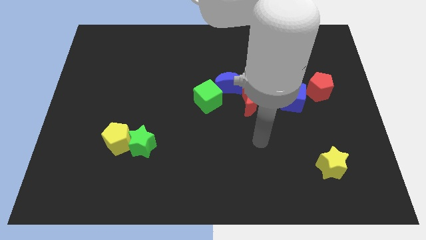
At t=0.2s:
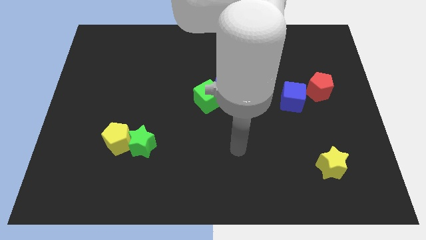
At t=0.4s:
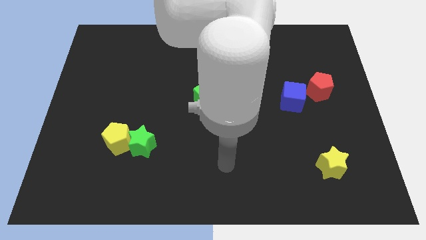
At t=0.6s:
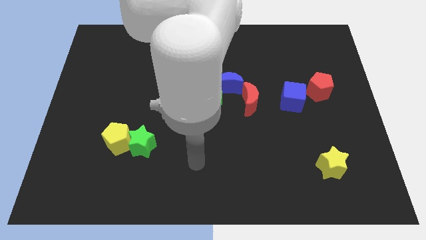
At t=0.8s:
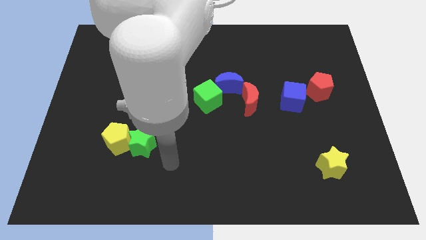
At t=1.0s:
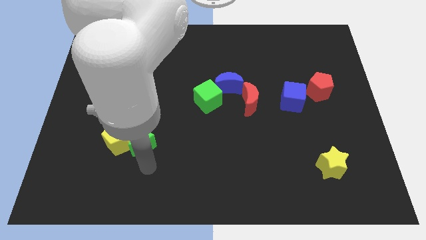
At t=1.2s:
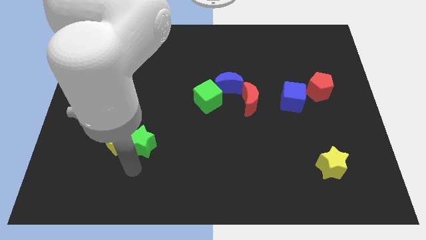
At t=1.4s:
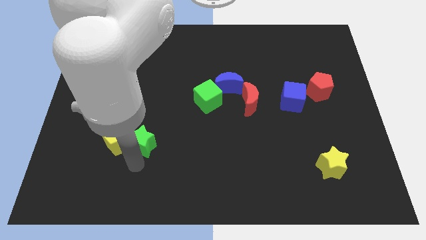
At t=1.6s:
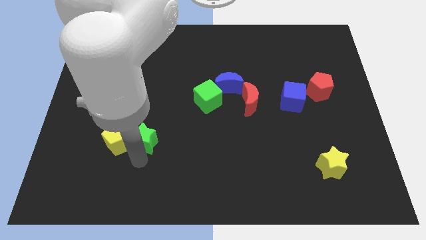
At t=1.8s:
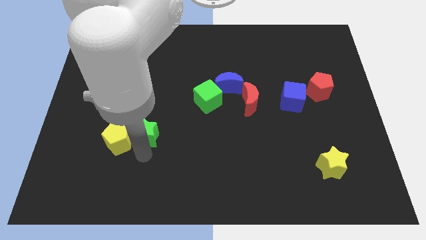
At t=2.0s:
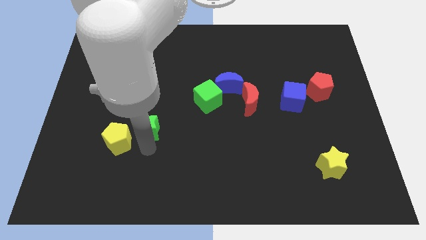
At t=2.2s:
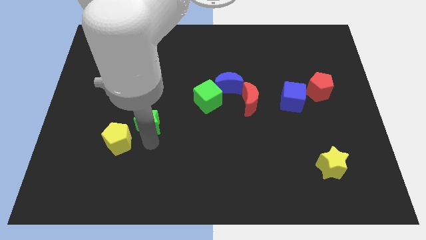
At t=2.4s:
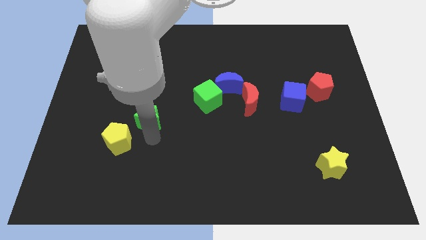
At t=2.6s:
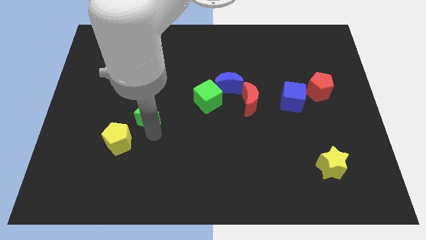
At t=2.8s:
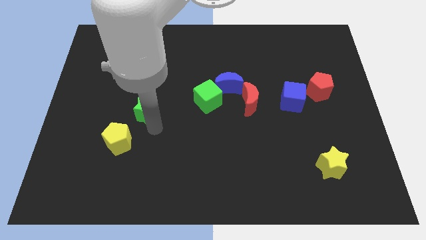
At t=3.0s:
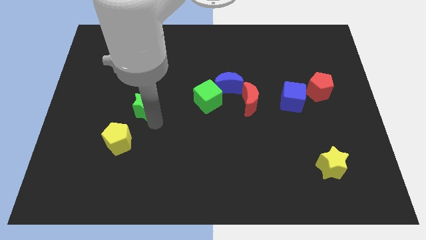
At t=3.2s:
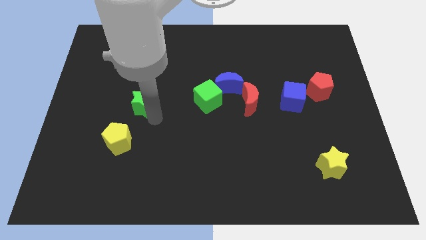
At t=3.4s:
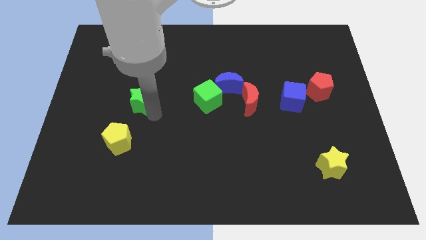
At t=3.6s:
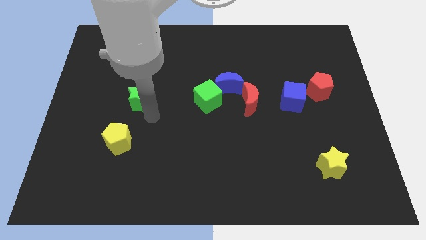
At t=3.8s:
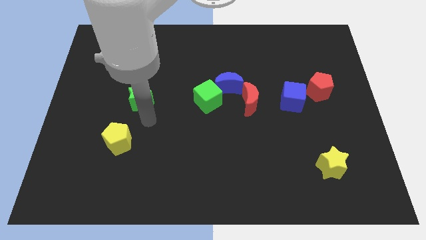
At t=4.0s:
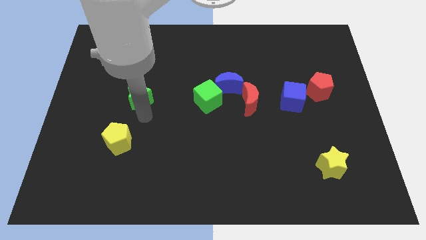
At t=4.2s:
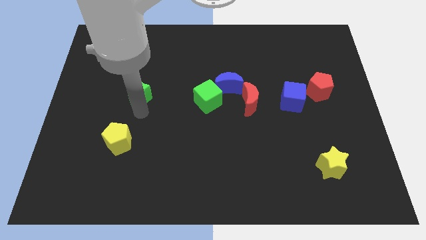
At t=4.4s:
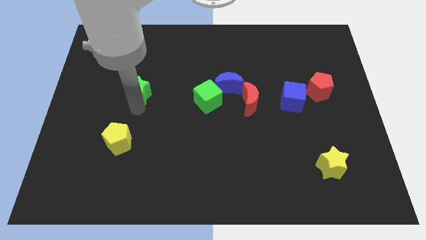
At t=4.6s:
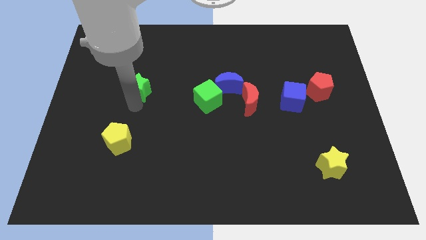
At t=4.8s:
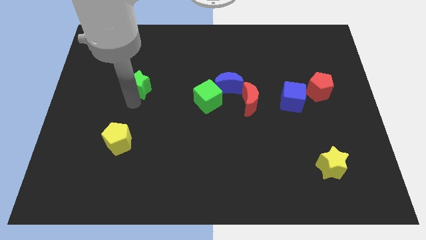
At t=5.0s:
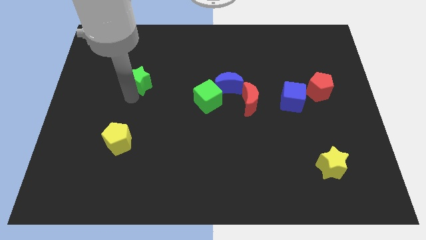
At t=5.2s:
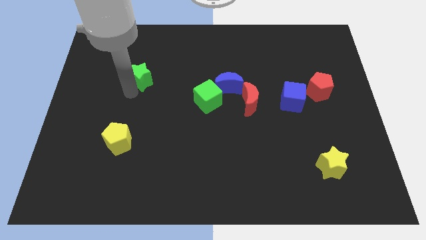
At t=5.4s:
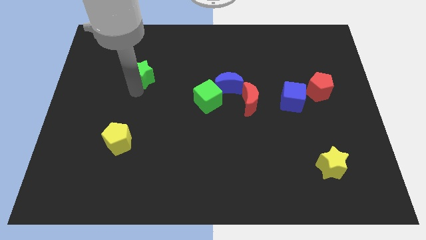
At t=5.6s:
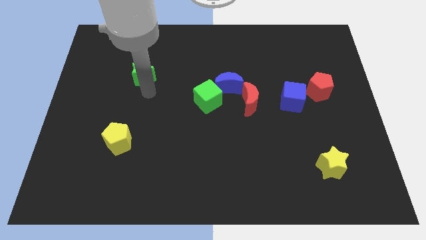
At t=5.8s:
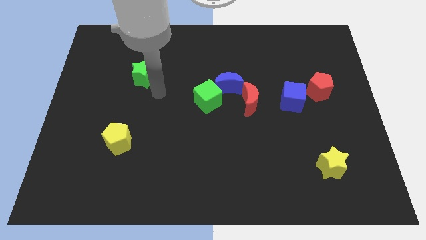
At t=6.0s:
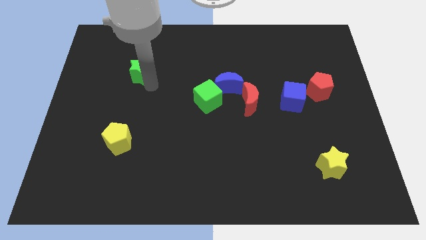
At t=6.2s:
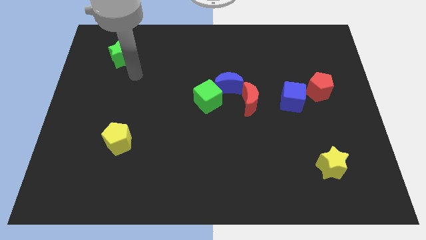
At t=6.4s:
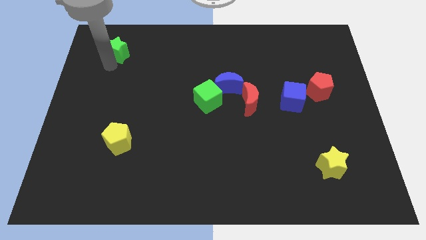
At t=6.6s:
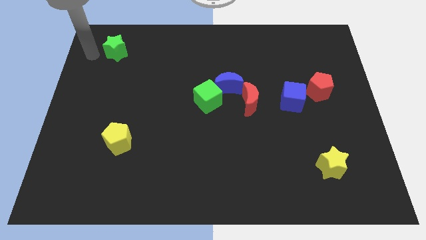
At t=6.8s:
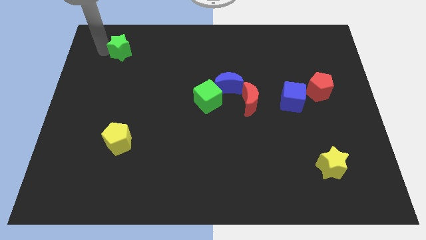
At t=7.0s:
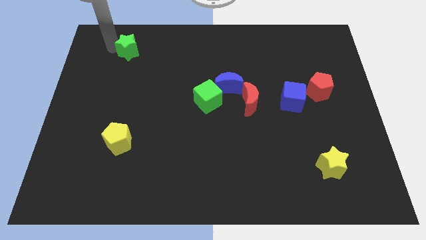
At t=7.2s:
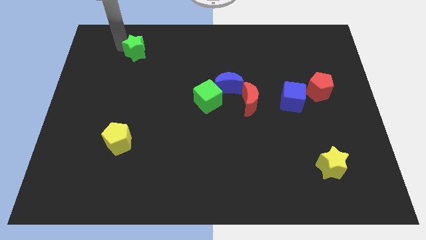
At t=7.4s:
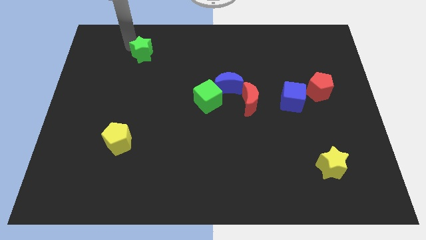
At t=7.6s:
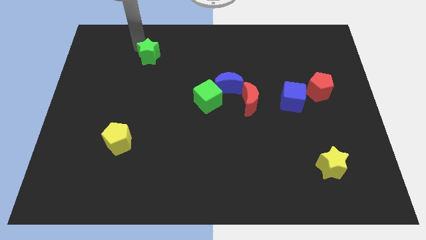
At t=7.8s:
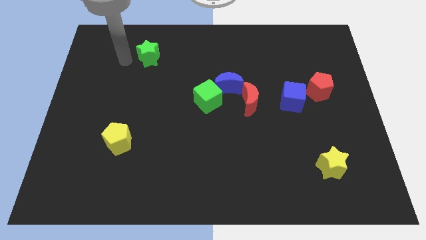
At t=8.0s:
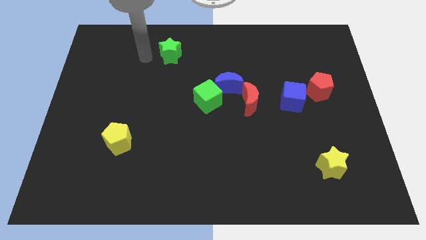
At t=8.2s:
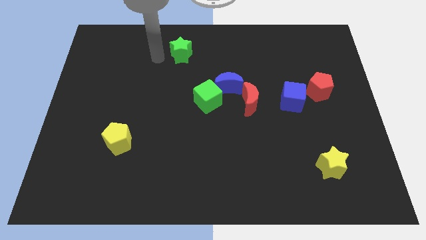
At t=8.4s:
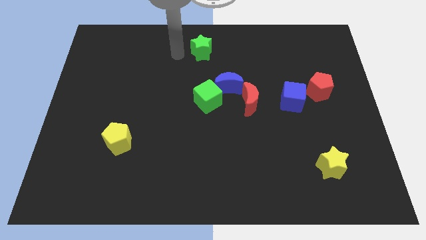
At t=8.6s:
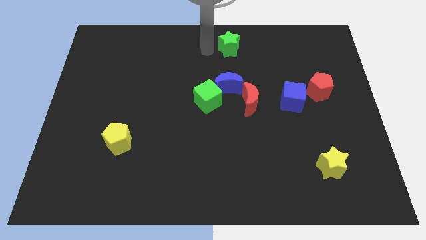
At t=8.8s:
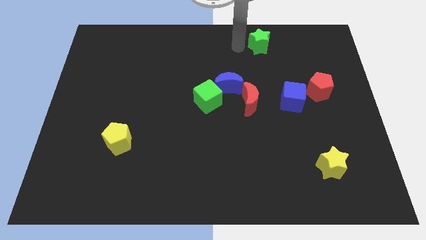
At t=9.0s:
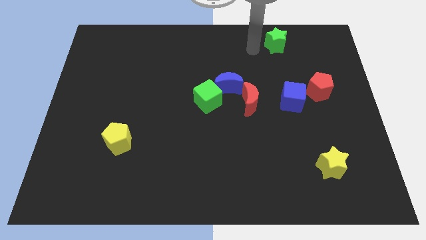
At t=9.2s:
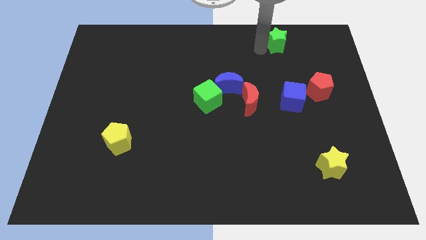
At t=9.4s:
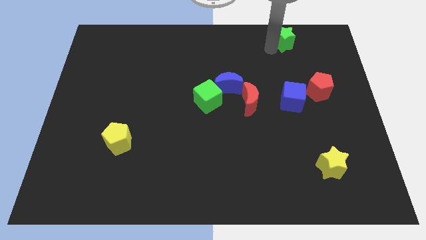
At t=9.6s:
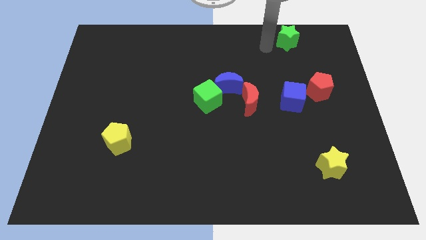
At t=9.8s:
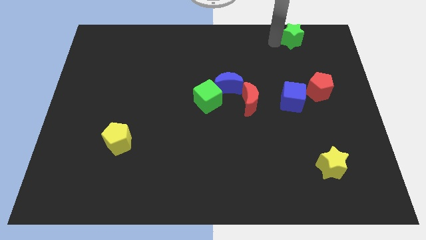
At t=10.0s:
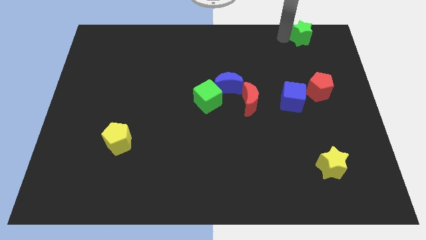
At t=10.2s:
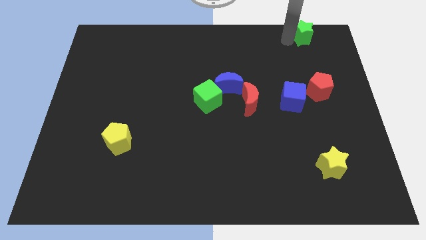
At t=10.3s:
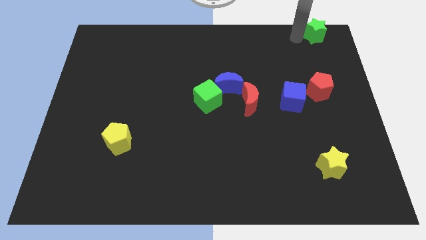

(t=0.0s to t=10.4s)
push the green star to the top right

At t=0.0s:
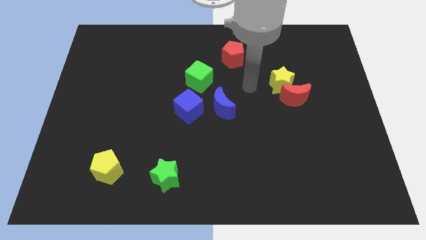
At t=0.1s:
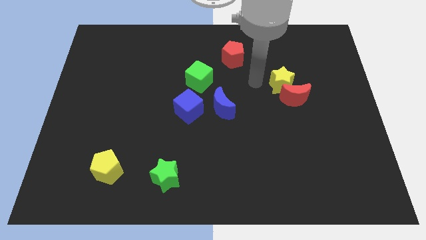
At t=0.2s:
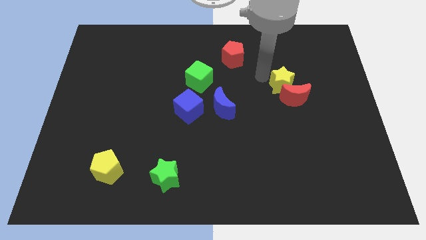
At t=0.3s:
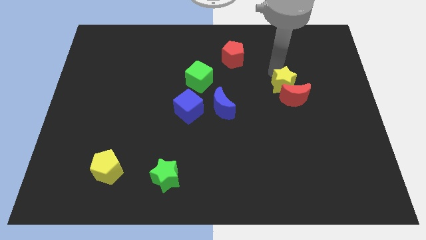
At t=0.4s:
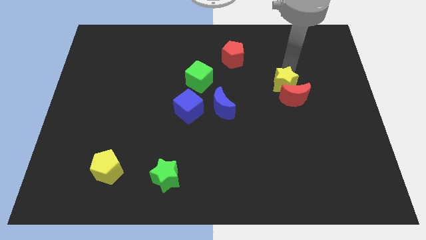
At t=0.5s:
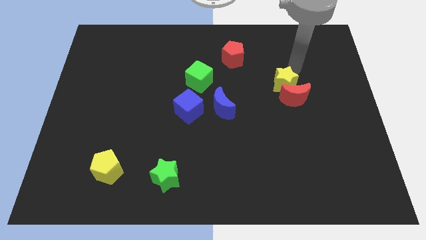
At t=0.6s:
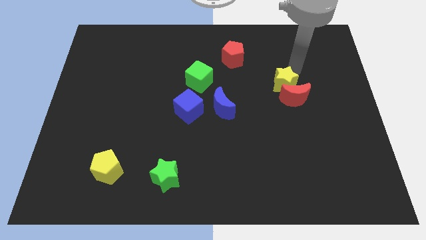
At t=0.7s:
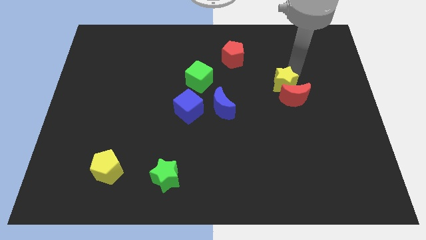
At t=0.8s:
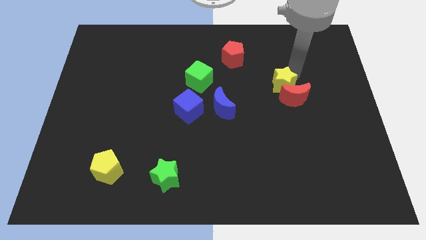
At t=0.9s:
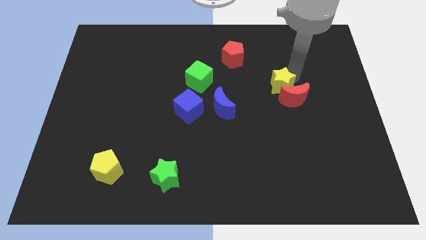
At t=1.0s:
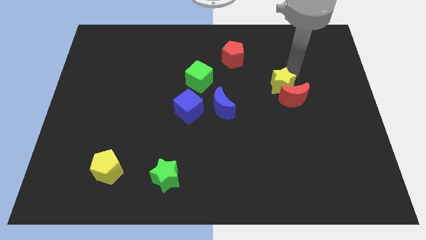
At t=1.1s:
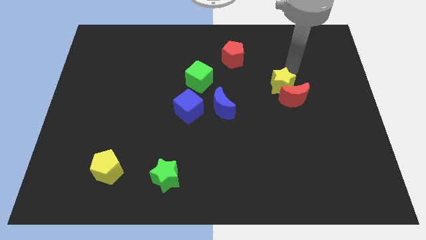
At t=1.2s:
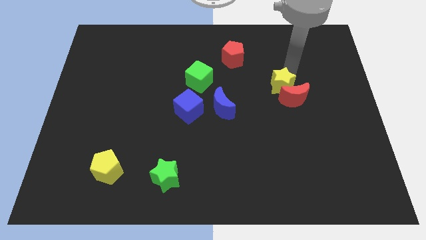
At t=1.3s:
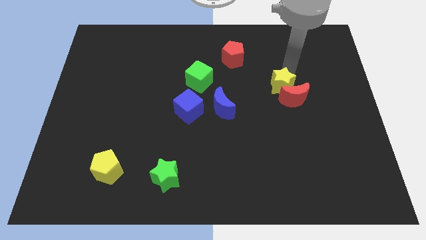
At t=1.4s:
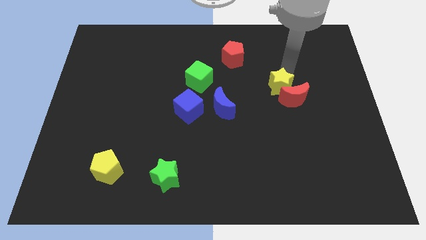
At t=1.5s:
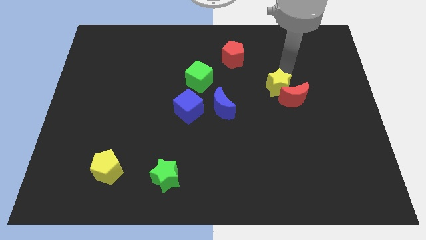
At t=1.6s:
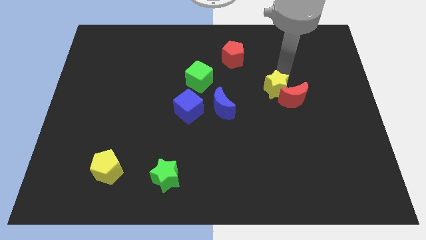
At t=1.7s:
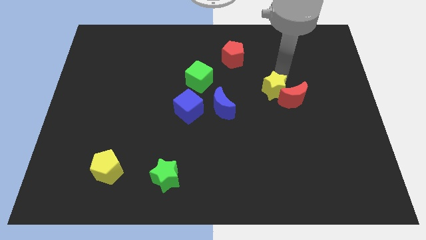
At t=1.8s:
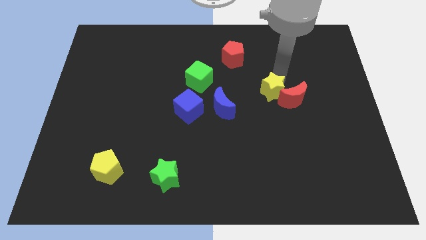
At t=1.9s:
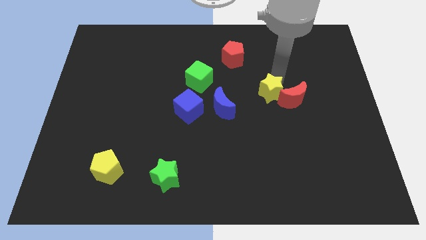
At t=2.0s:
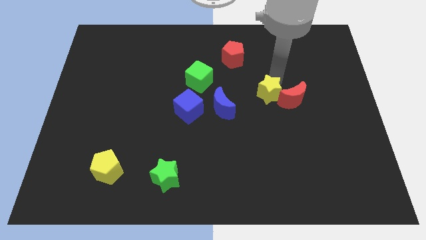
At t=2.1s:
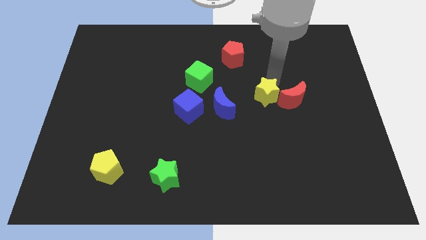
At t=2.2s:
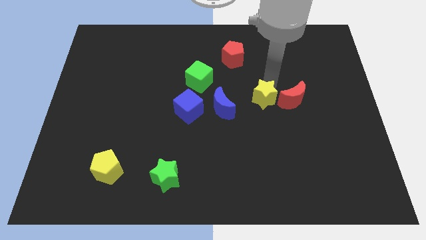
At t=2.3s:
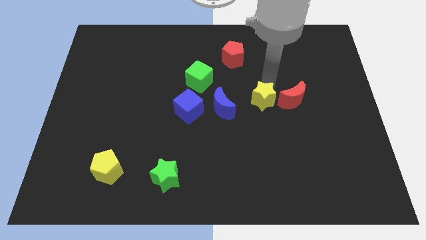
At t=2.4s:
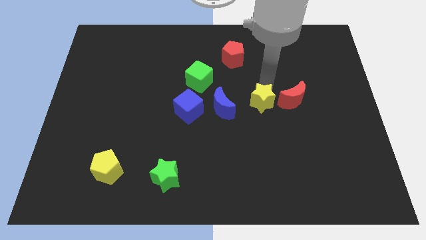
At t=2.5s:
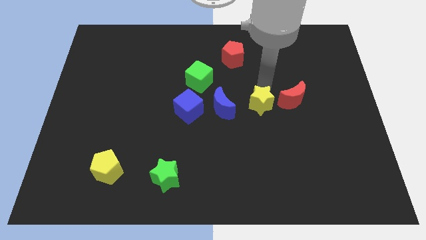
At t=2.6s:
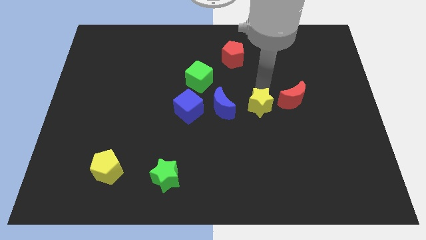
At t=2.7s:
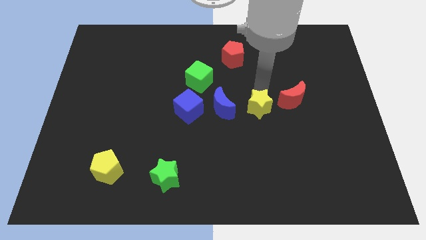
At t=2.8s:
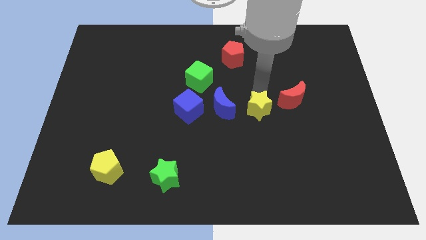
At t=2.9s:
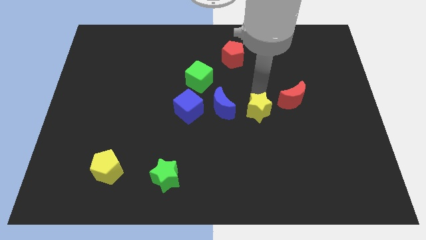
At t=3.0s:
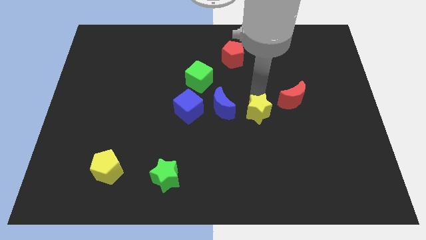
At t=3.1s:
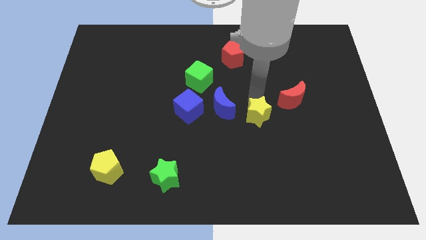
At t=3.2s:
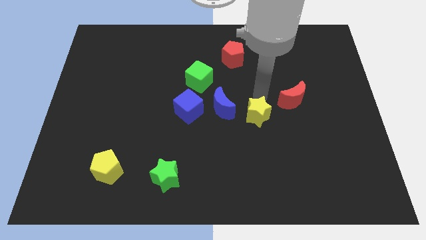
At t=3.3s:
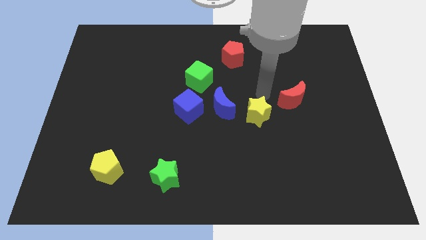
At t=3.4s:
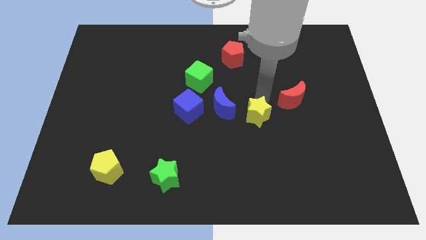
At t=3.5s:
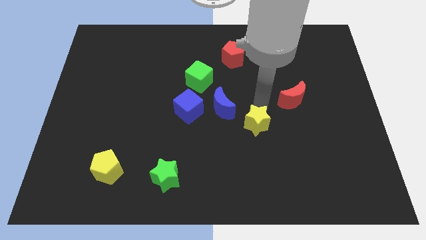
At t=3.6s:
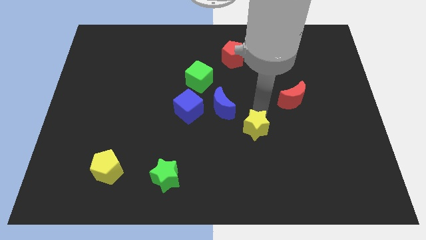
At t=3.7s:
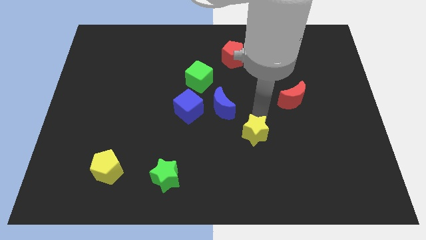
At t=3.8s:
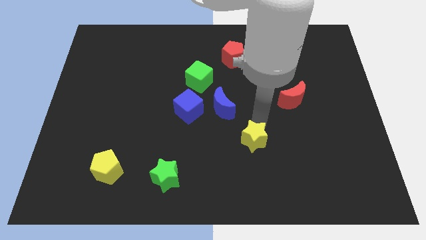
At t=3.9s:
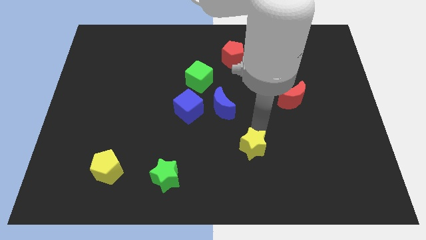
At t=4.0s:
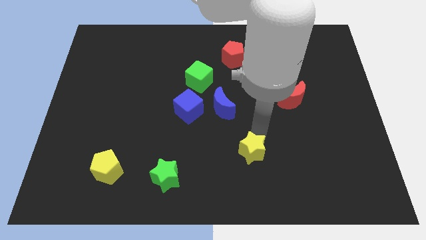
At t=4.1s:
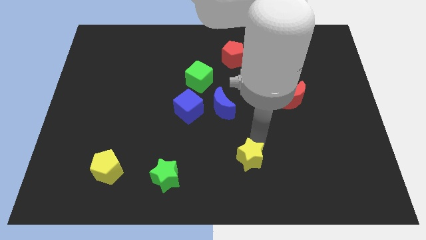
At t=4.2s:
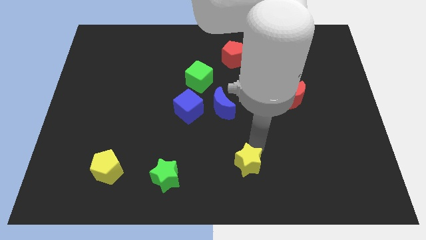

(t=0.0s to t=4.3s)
push the yellow star to the bottom
